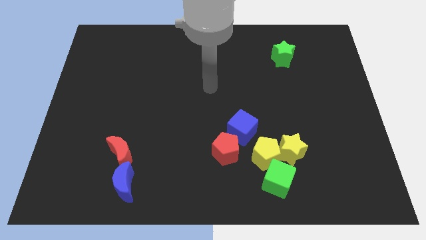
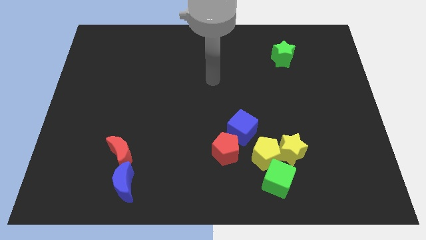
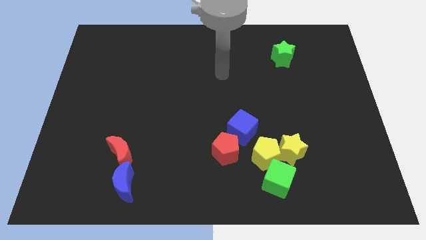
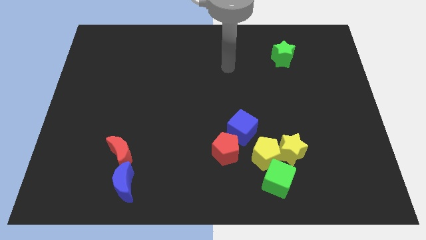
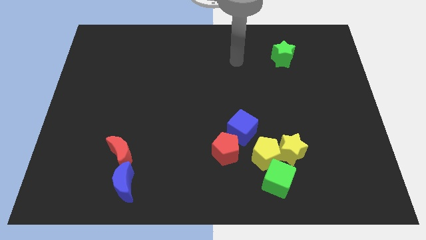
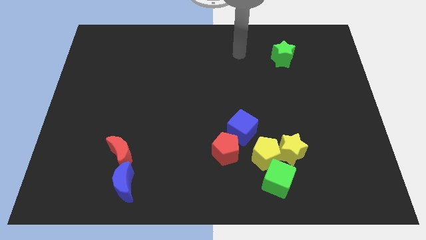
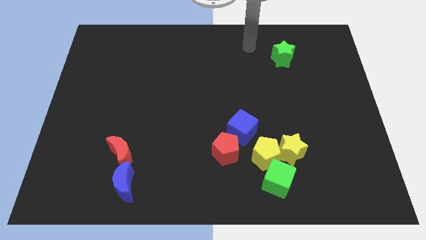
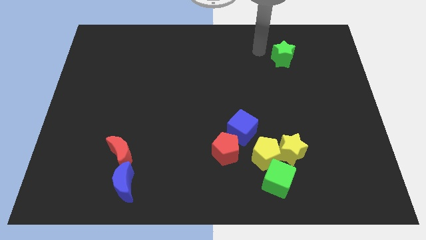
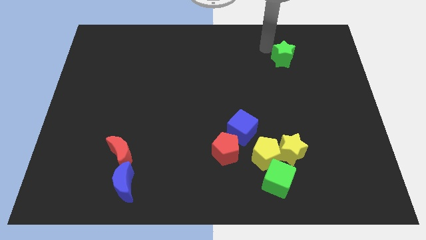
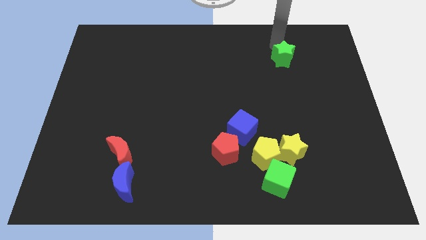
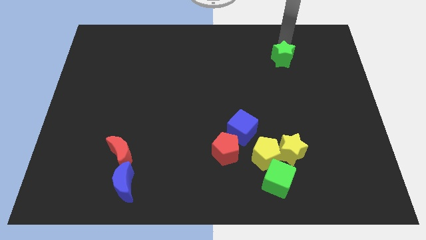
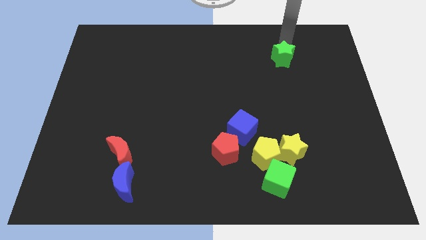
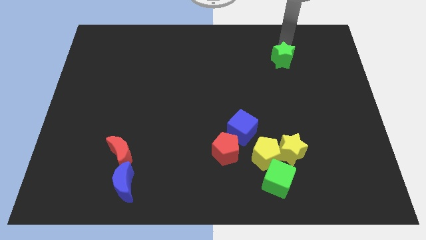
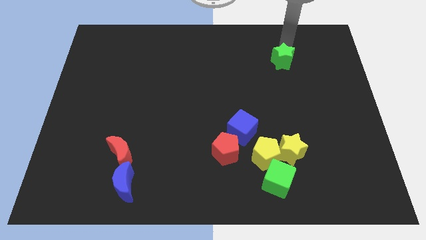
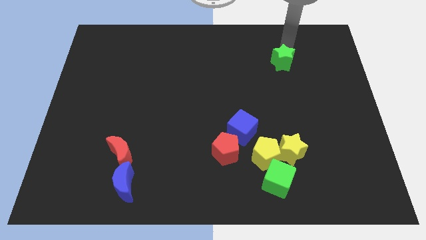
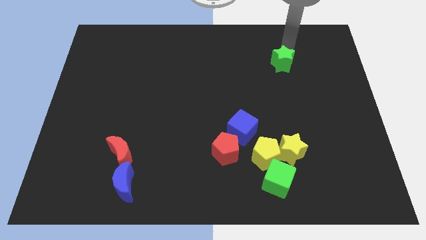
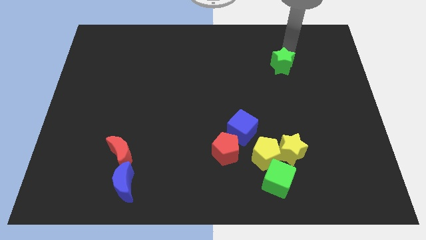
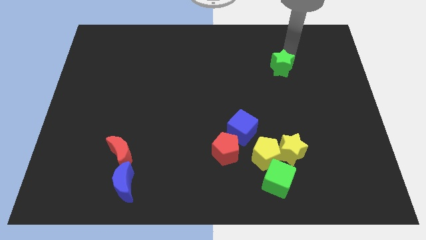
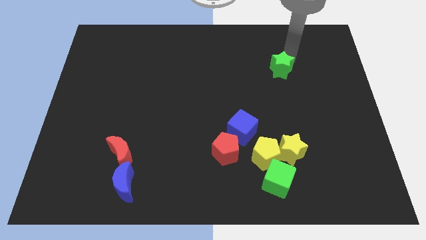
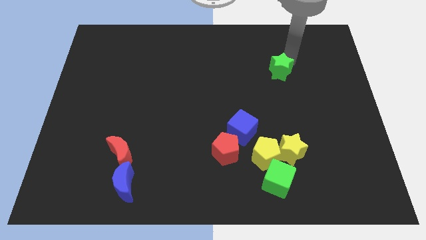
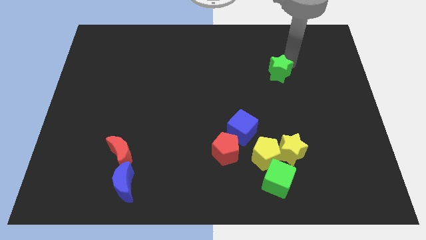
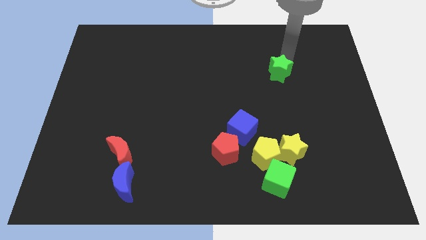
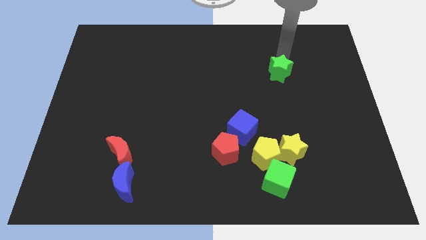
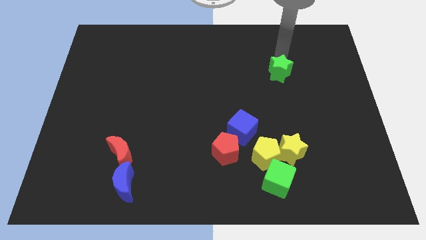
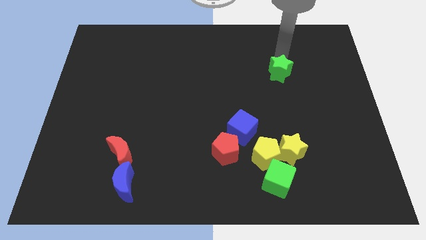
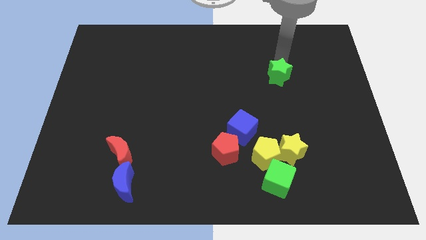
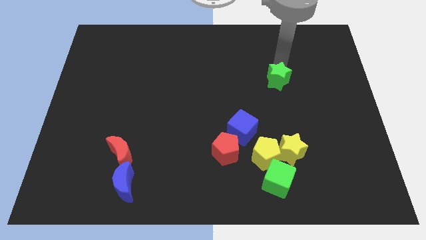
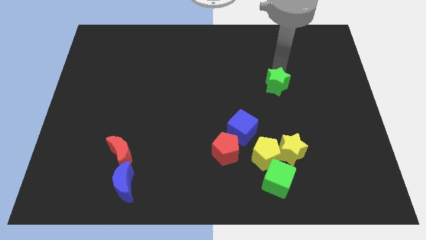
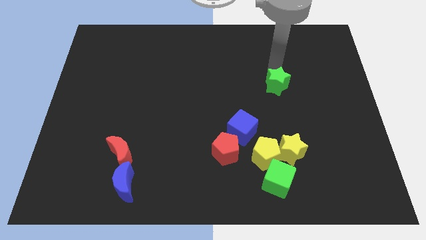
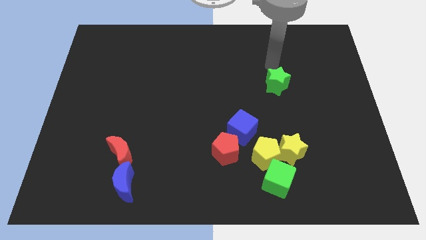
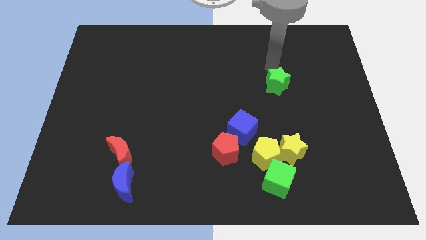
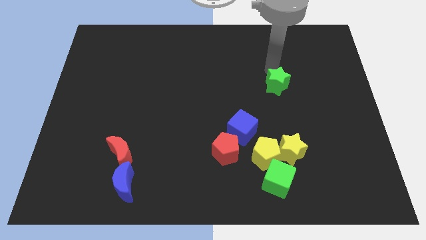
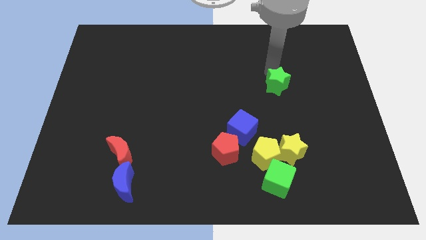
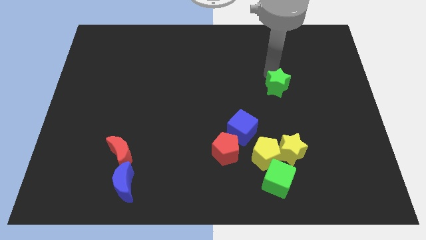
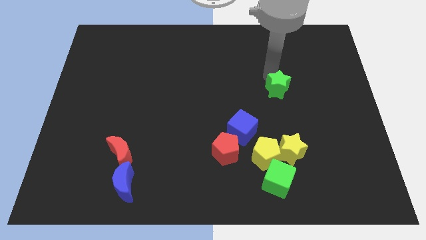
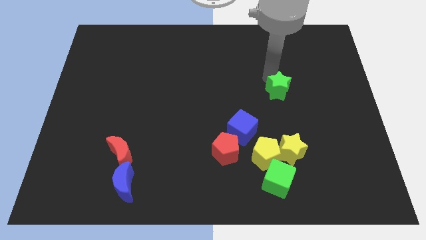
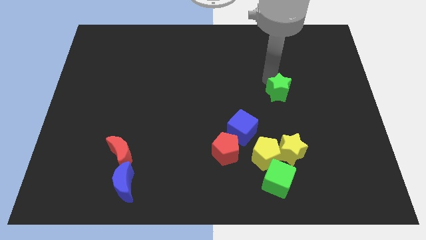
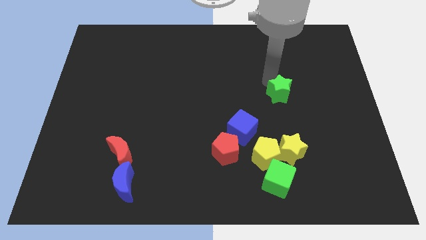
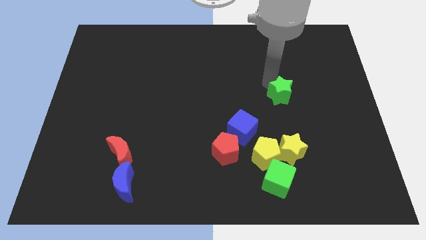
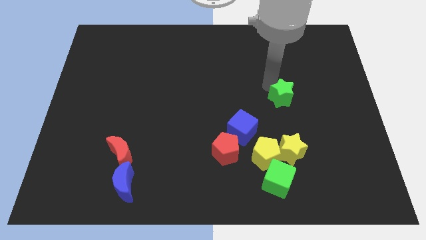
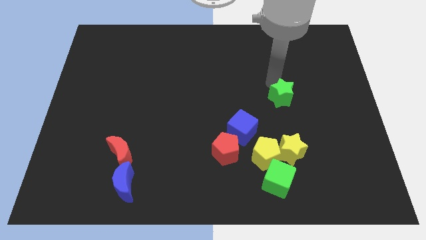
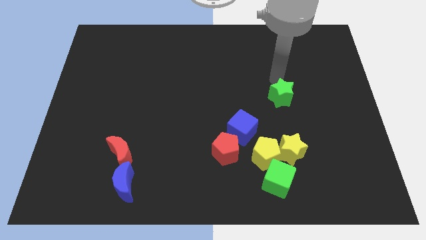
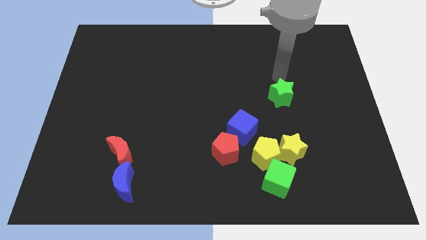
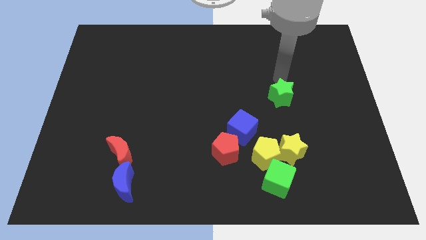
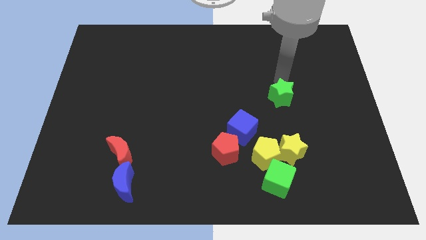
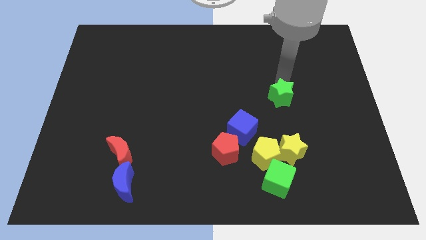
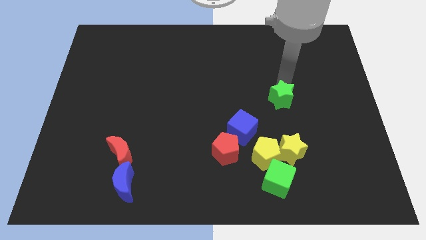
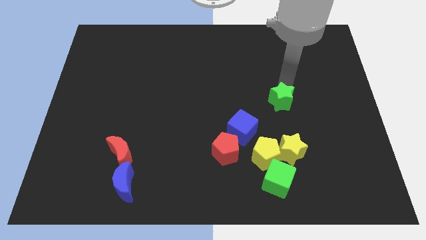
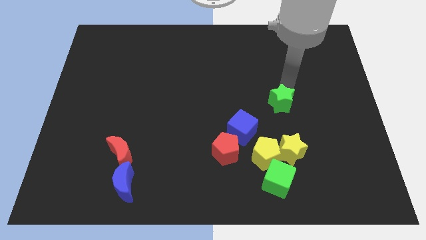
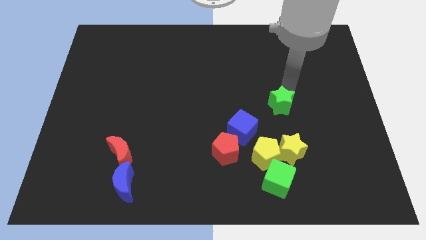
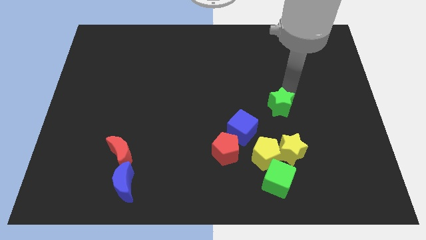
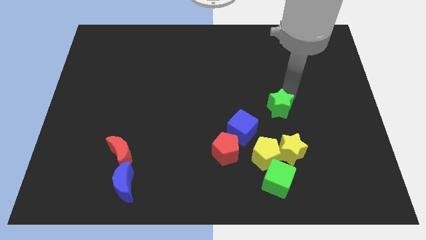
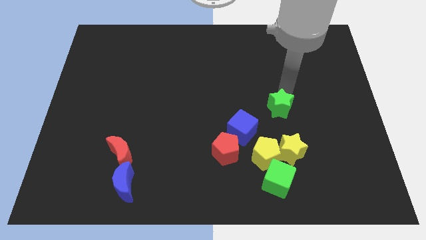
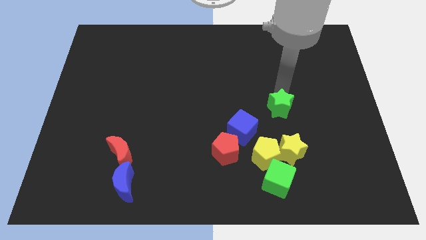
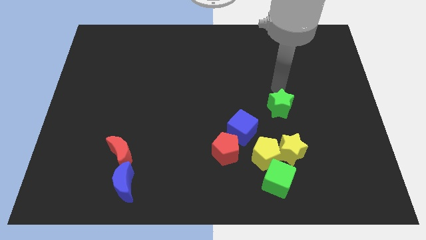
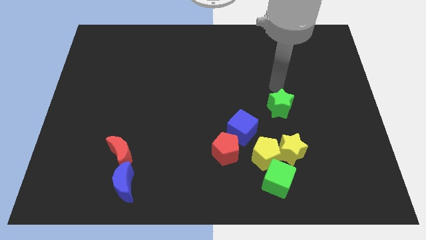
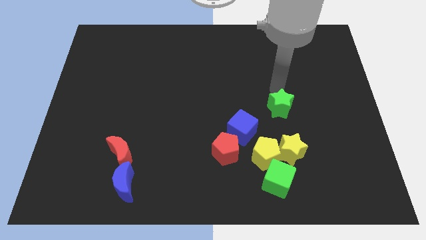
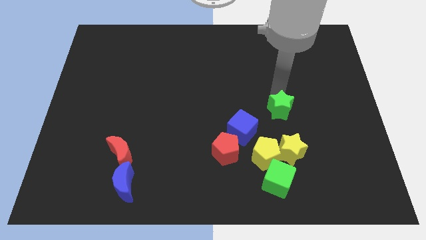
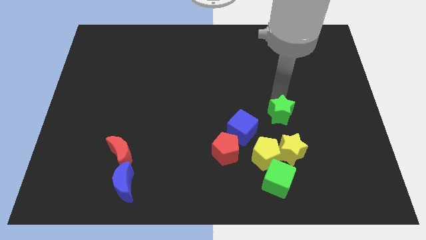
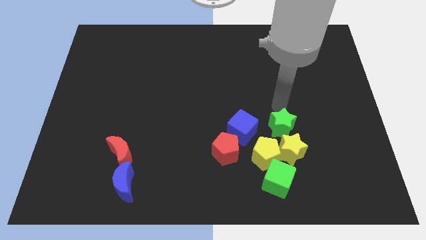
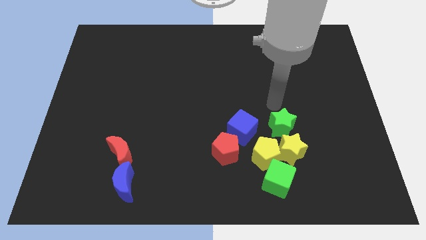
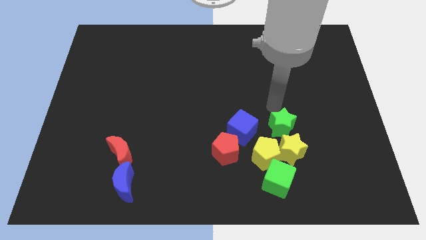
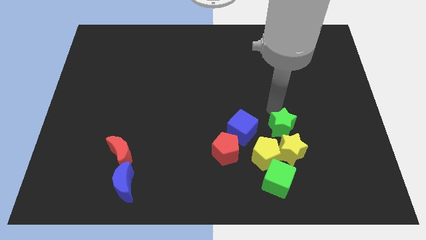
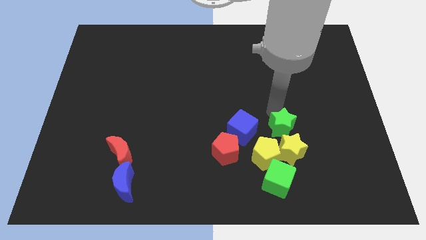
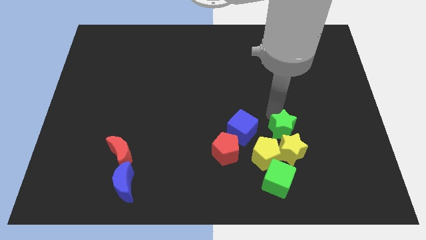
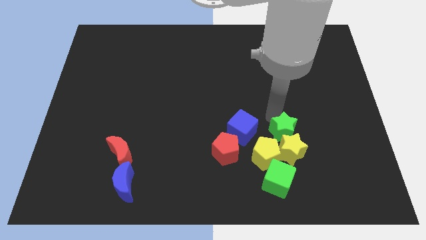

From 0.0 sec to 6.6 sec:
push the green star next to the yellow star
